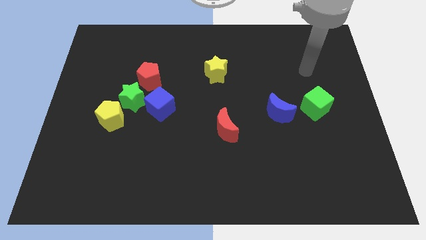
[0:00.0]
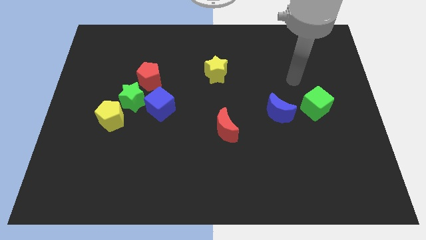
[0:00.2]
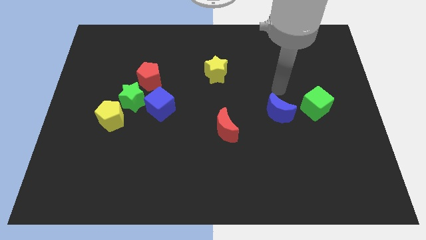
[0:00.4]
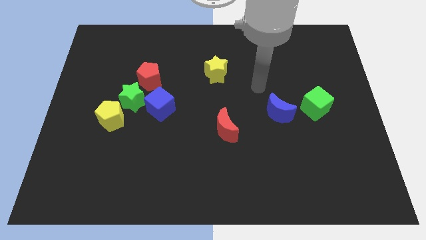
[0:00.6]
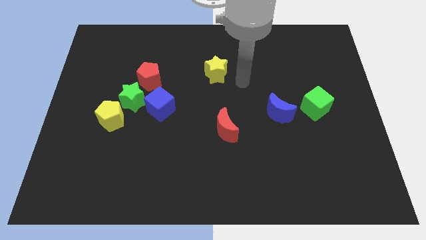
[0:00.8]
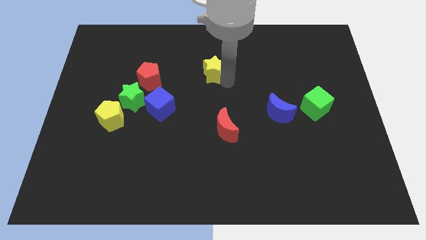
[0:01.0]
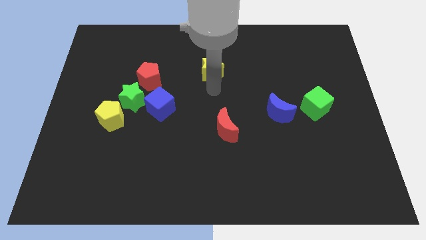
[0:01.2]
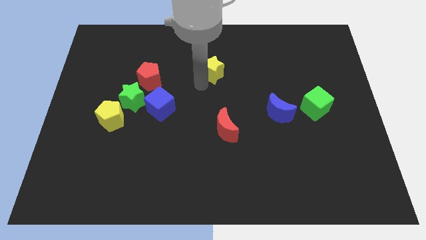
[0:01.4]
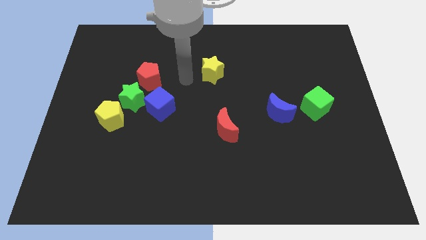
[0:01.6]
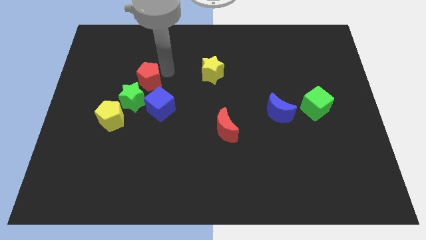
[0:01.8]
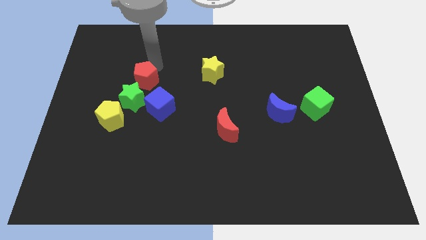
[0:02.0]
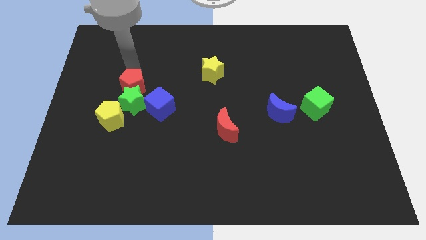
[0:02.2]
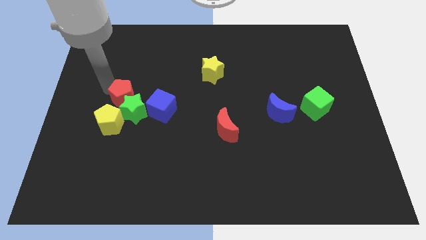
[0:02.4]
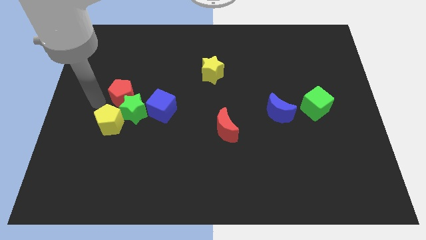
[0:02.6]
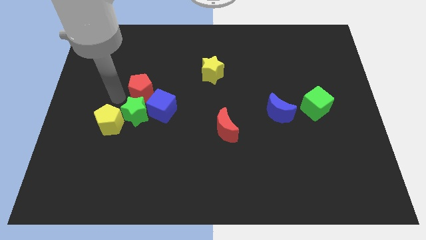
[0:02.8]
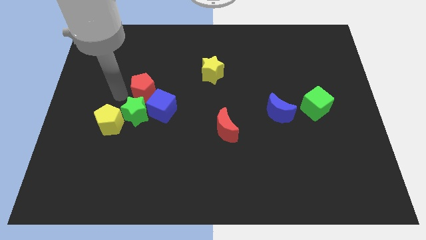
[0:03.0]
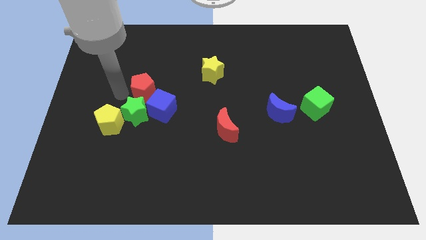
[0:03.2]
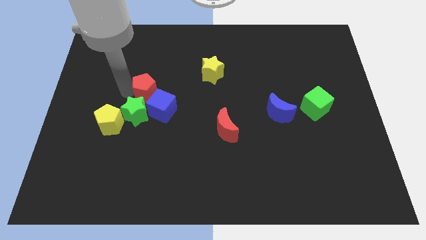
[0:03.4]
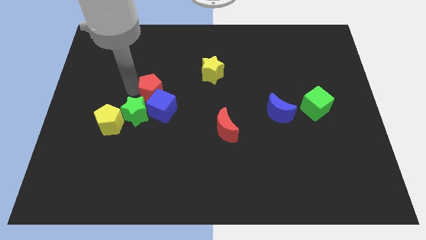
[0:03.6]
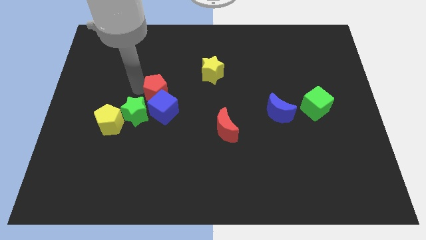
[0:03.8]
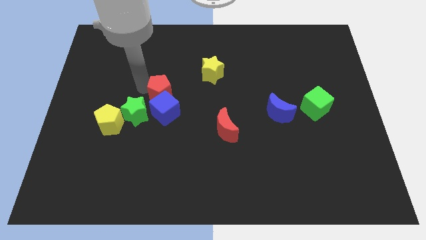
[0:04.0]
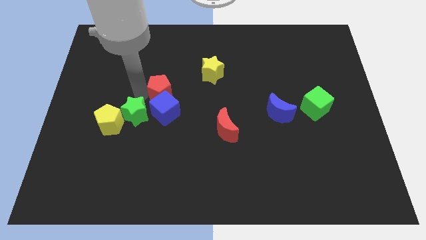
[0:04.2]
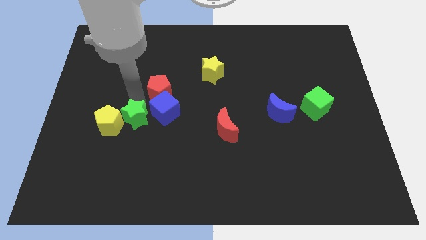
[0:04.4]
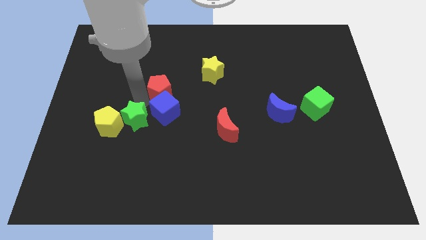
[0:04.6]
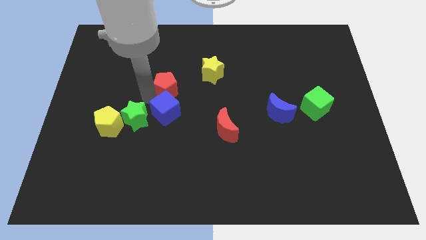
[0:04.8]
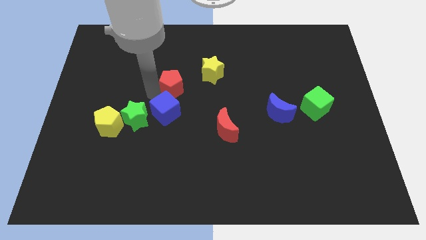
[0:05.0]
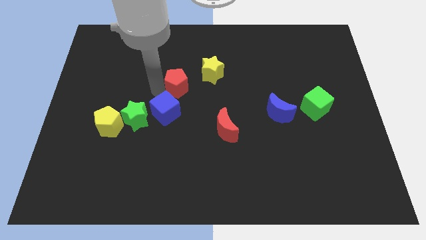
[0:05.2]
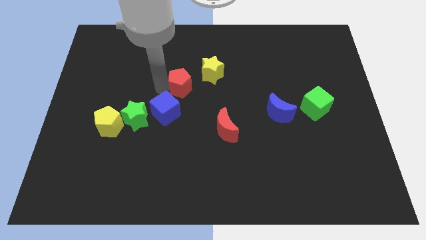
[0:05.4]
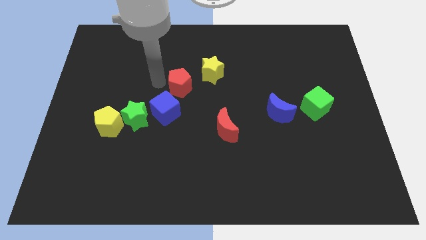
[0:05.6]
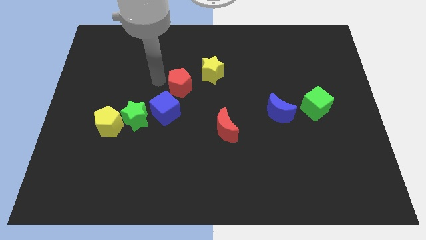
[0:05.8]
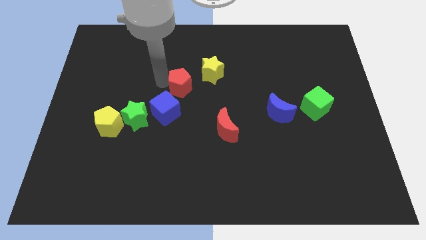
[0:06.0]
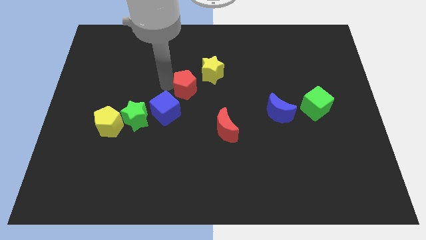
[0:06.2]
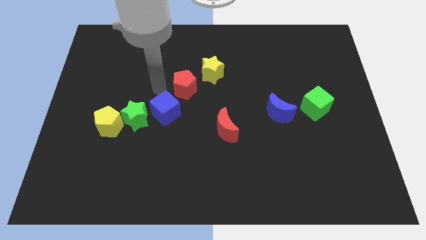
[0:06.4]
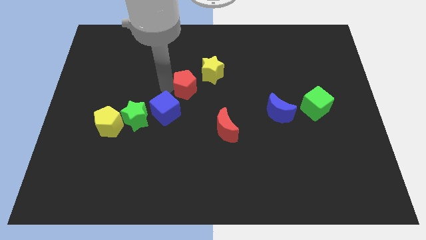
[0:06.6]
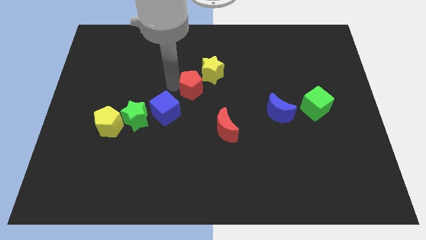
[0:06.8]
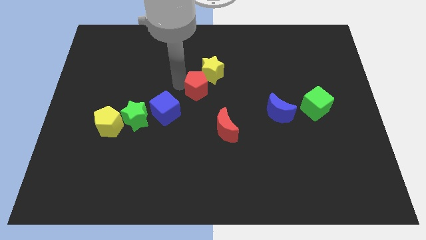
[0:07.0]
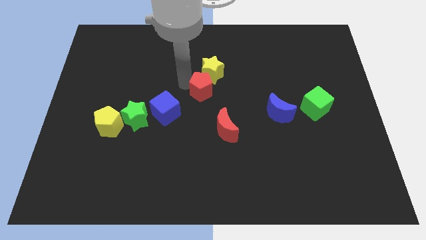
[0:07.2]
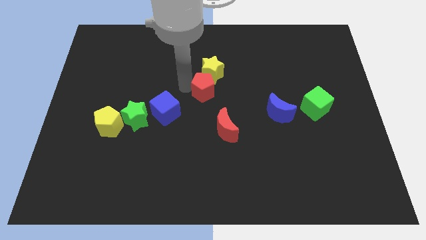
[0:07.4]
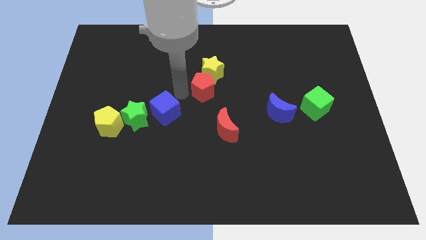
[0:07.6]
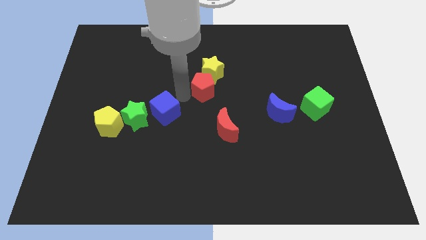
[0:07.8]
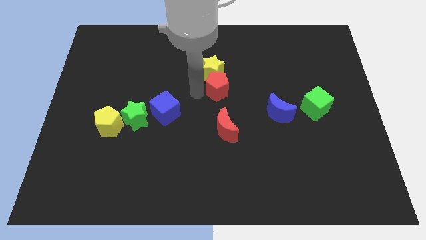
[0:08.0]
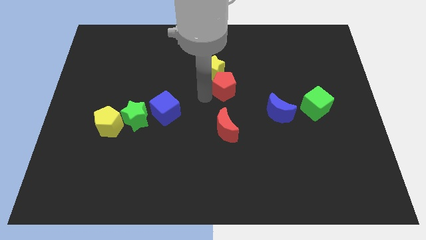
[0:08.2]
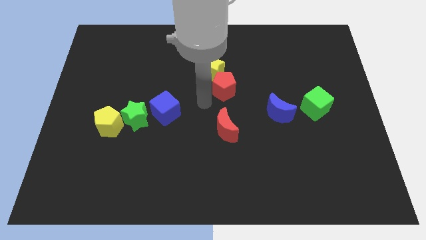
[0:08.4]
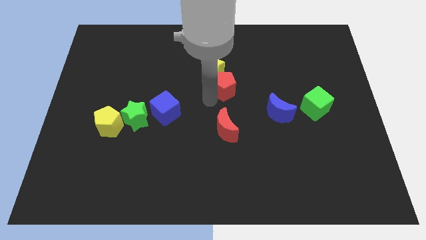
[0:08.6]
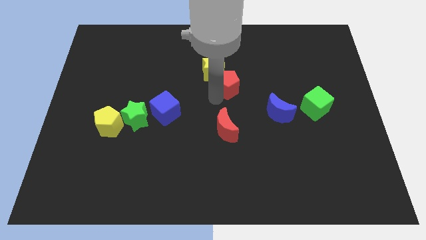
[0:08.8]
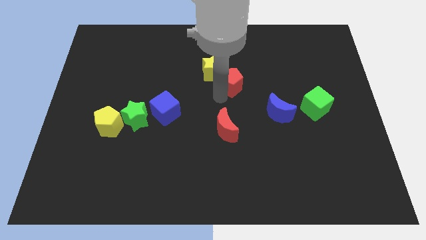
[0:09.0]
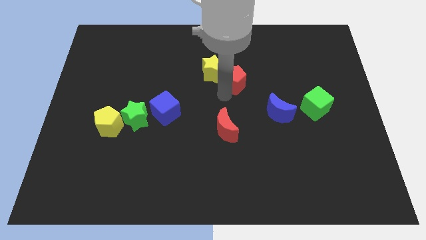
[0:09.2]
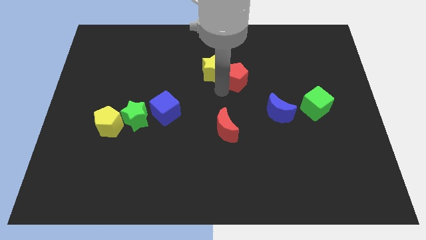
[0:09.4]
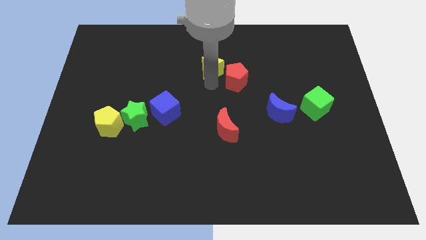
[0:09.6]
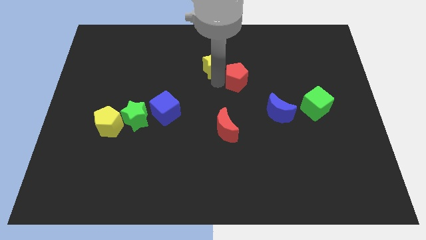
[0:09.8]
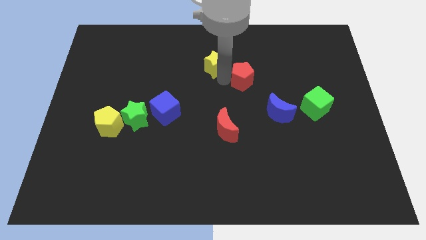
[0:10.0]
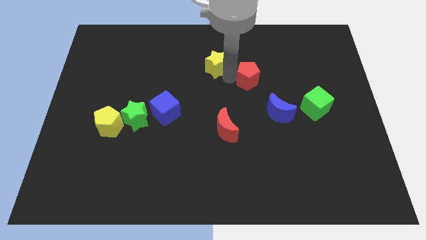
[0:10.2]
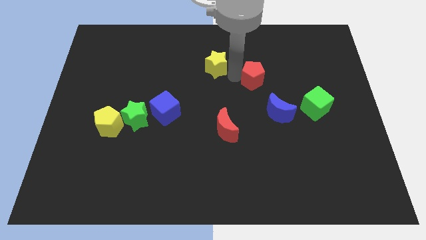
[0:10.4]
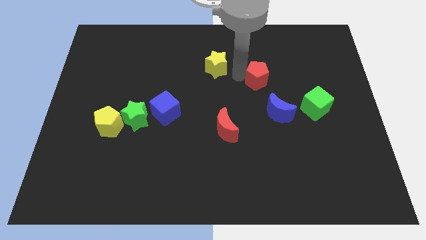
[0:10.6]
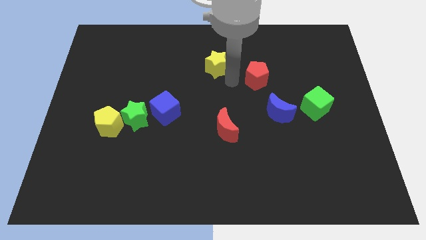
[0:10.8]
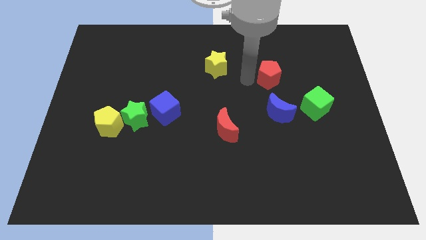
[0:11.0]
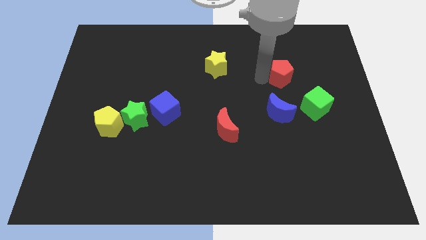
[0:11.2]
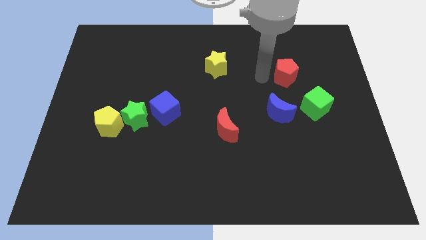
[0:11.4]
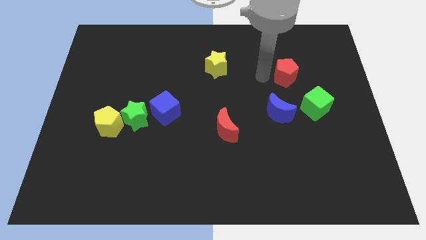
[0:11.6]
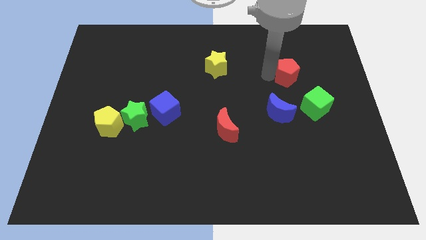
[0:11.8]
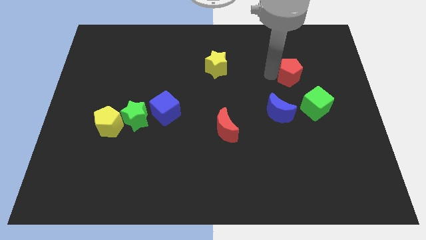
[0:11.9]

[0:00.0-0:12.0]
slide the red pentagon to the top of the green cube

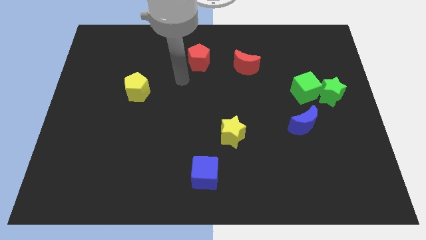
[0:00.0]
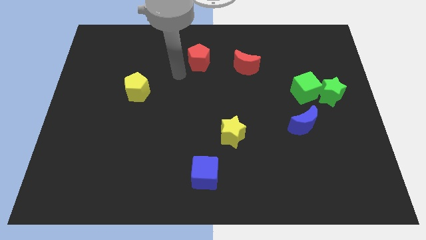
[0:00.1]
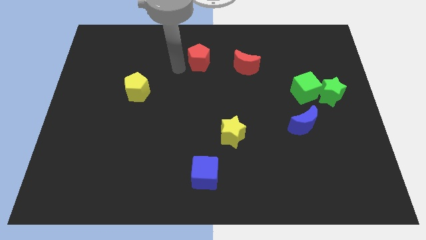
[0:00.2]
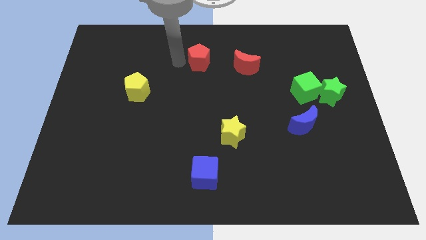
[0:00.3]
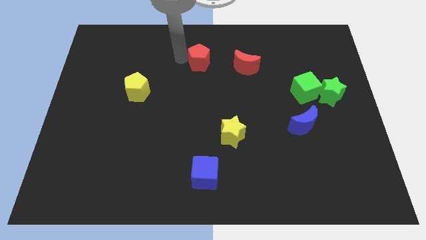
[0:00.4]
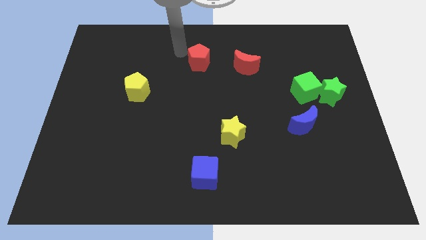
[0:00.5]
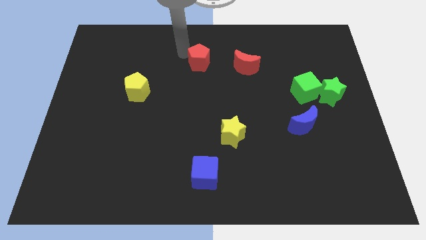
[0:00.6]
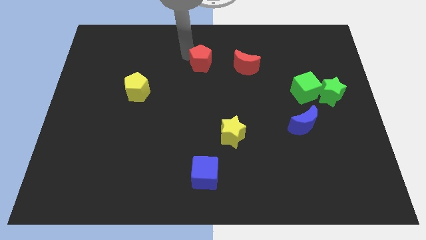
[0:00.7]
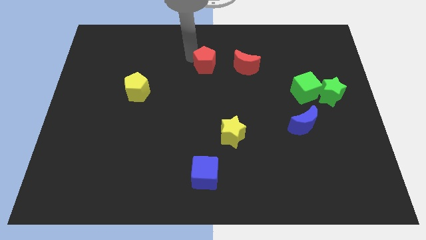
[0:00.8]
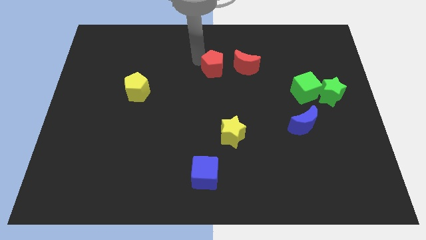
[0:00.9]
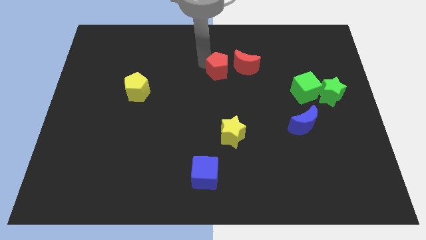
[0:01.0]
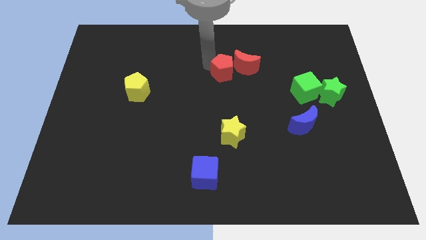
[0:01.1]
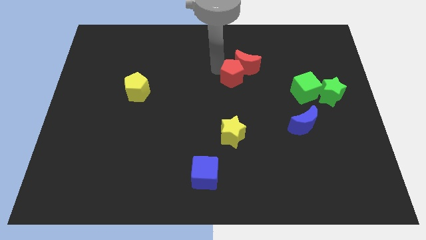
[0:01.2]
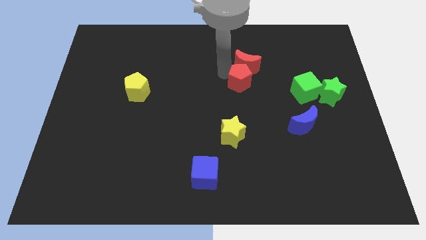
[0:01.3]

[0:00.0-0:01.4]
put the red pentagon to the bottom right of the red moon

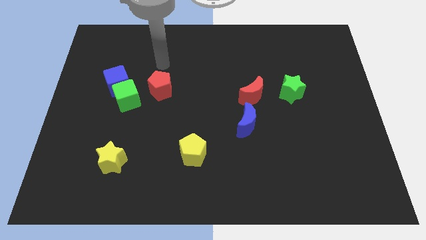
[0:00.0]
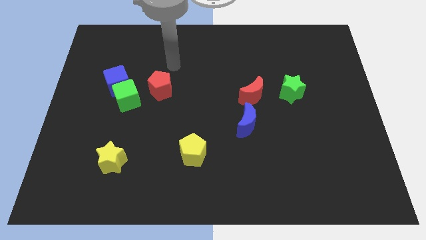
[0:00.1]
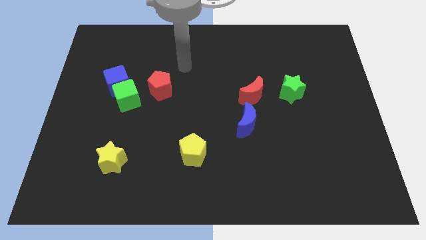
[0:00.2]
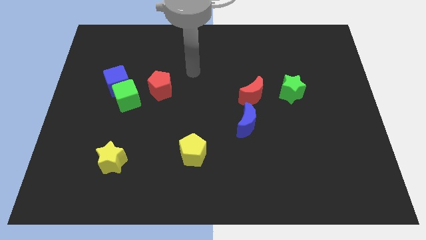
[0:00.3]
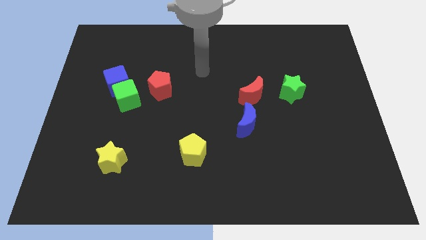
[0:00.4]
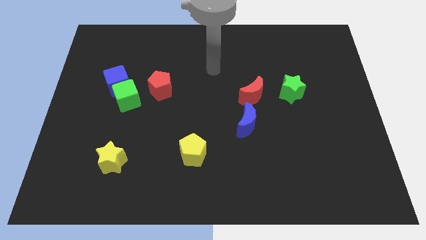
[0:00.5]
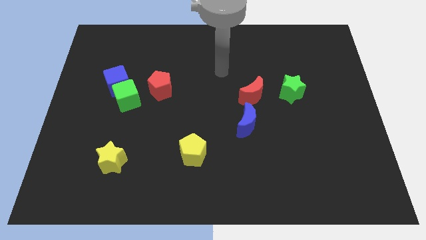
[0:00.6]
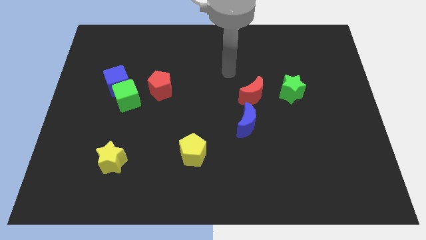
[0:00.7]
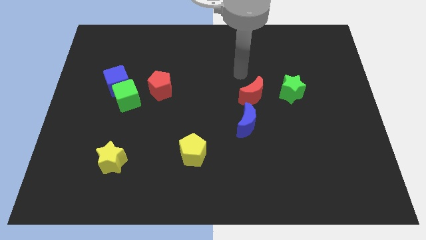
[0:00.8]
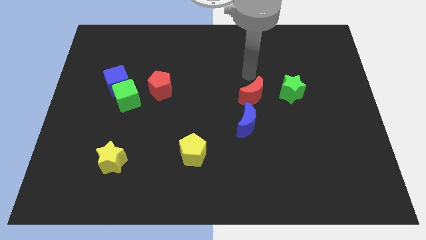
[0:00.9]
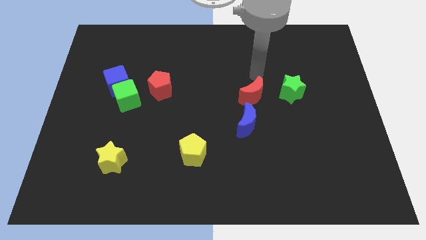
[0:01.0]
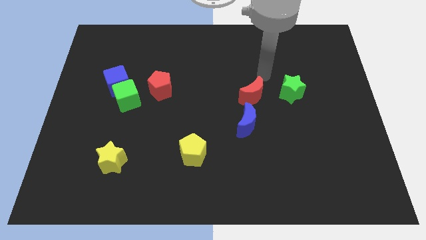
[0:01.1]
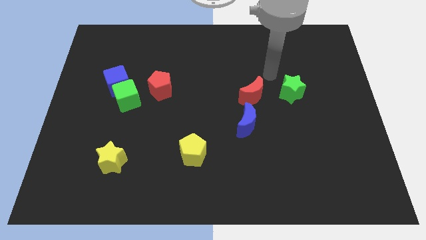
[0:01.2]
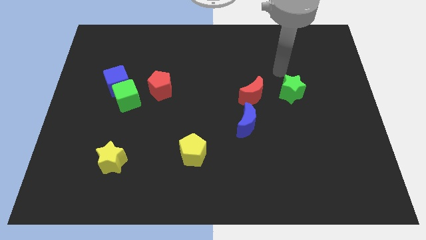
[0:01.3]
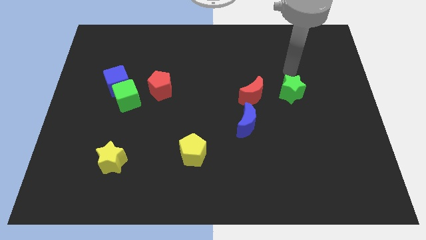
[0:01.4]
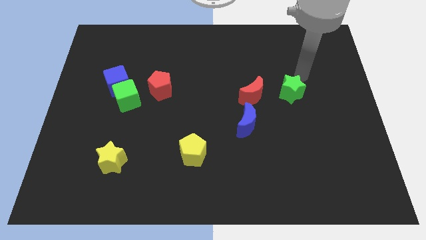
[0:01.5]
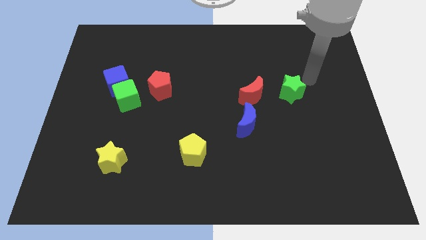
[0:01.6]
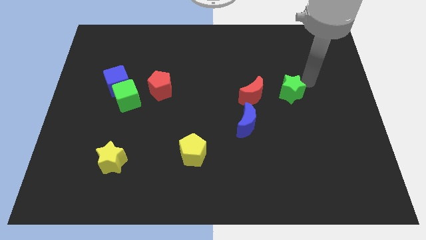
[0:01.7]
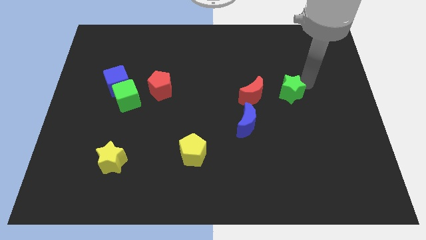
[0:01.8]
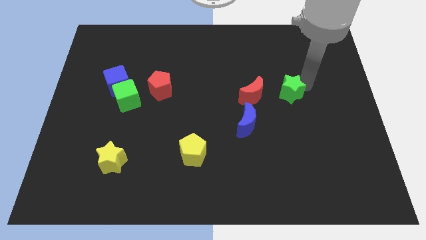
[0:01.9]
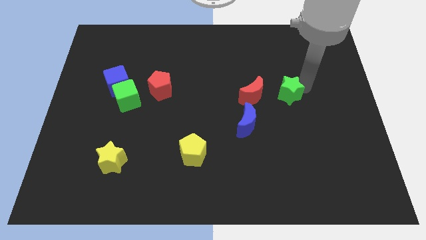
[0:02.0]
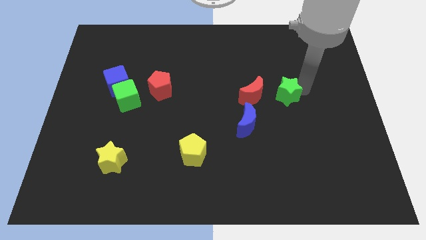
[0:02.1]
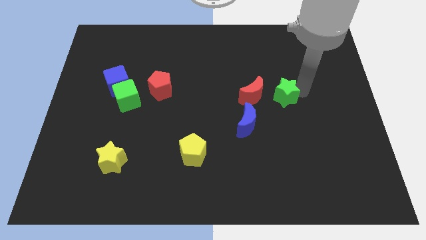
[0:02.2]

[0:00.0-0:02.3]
push the green star to the top right side of the blue moon
